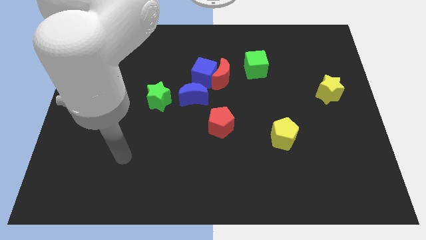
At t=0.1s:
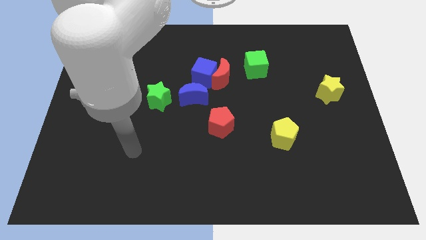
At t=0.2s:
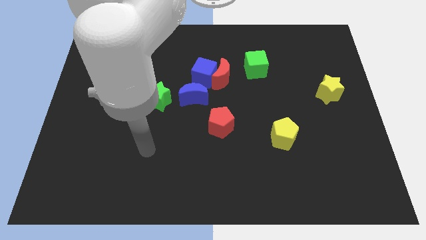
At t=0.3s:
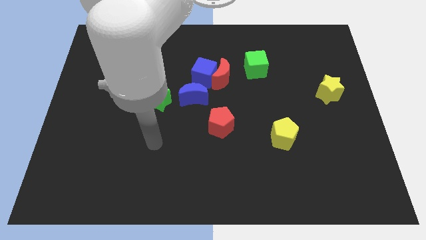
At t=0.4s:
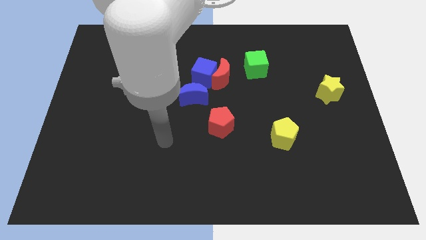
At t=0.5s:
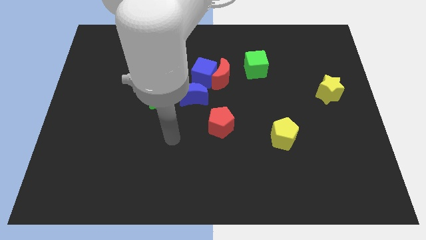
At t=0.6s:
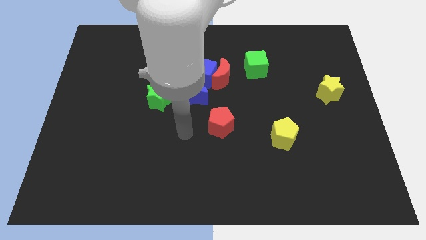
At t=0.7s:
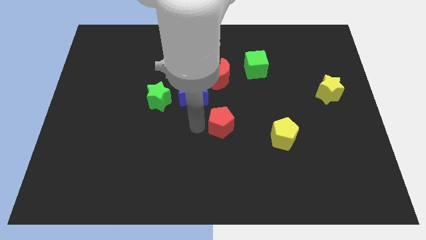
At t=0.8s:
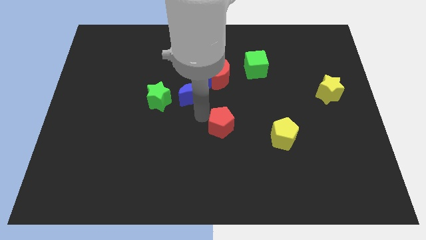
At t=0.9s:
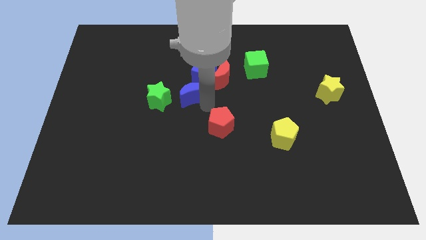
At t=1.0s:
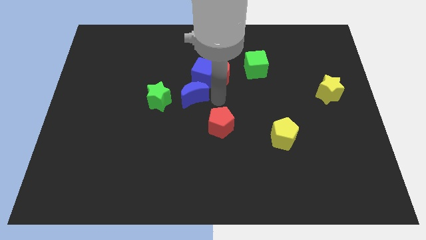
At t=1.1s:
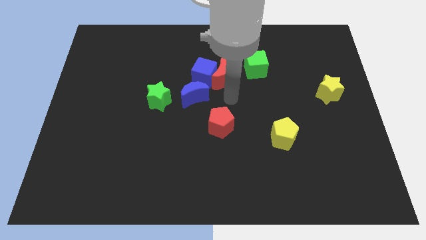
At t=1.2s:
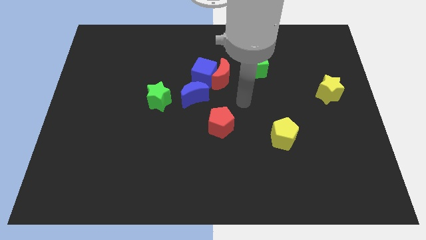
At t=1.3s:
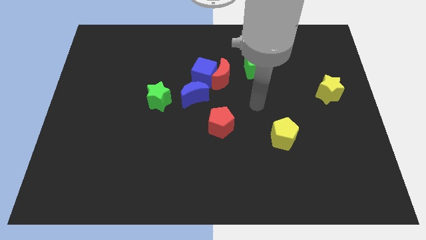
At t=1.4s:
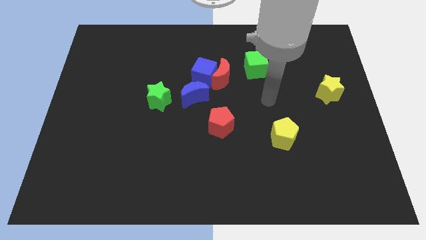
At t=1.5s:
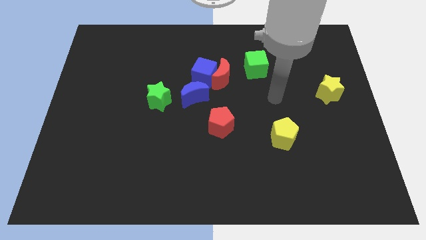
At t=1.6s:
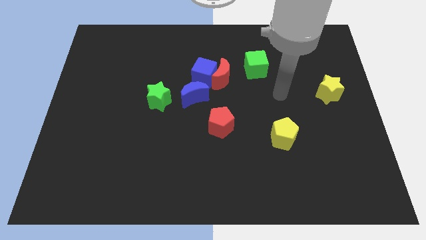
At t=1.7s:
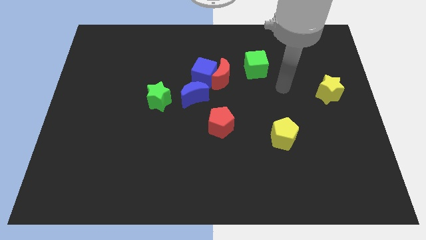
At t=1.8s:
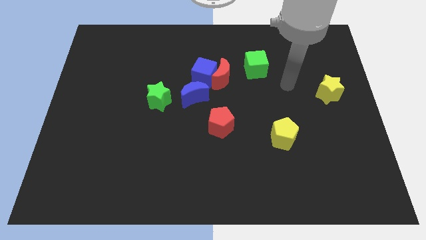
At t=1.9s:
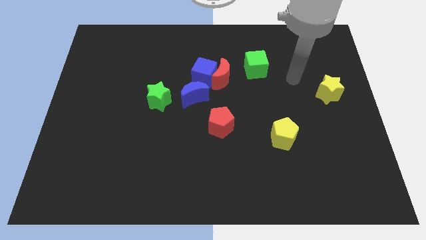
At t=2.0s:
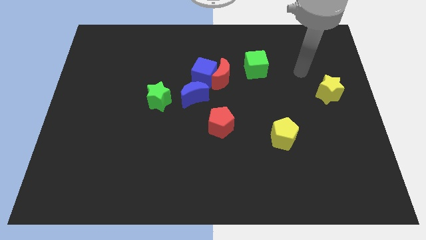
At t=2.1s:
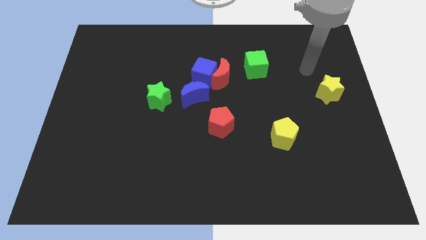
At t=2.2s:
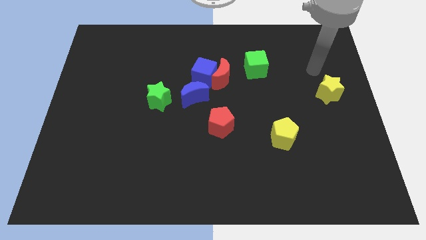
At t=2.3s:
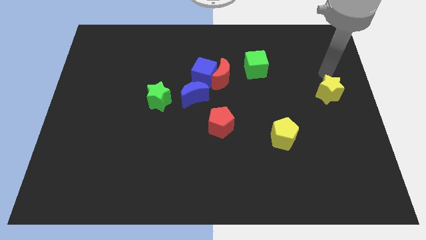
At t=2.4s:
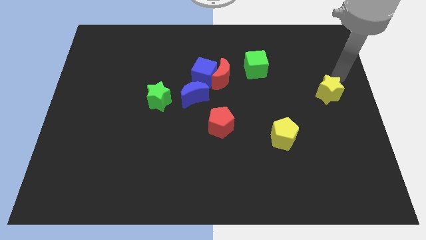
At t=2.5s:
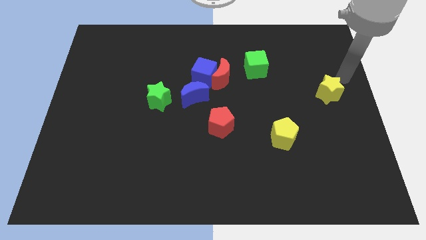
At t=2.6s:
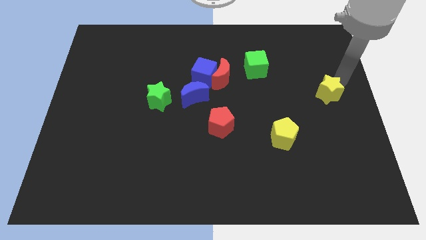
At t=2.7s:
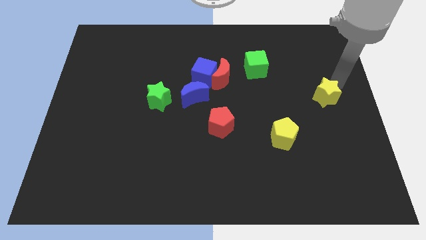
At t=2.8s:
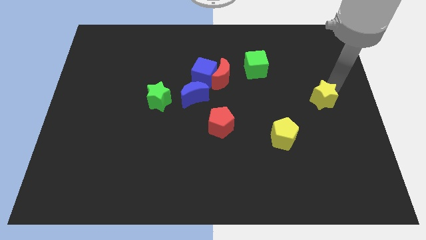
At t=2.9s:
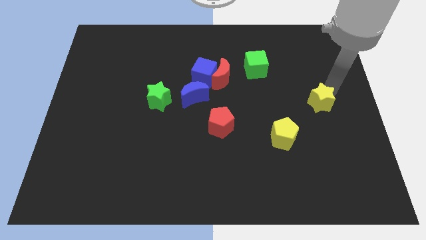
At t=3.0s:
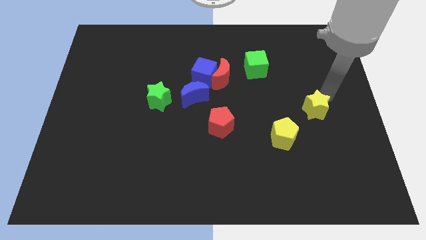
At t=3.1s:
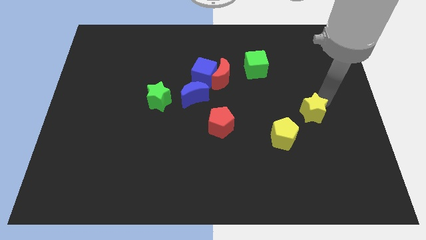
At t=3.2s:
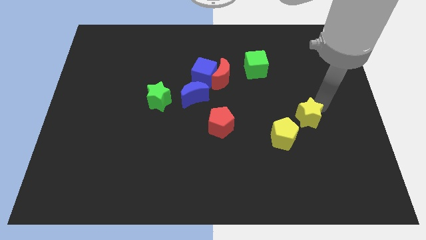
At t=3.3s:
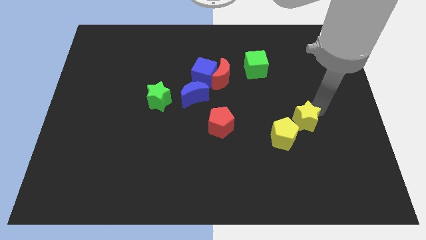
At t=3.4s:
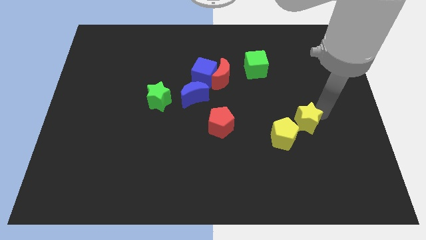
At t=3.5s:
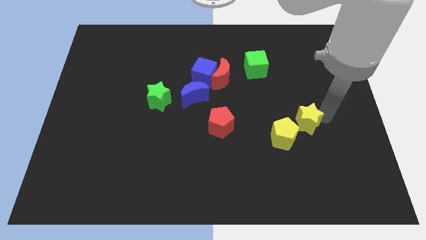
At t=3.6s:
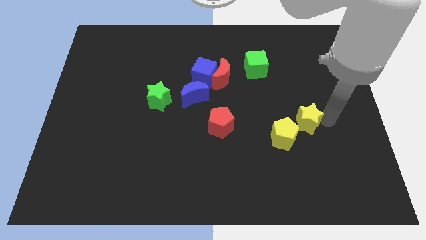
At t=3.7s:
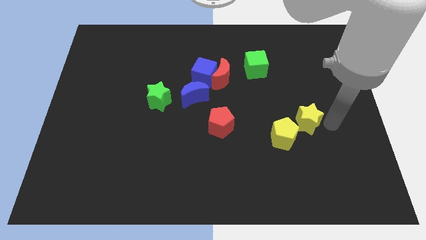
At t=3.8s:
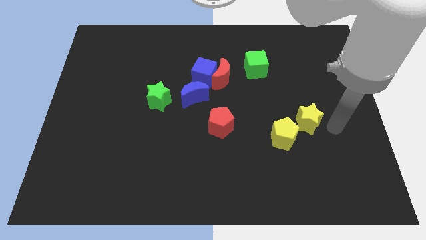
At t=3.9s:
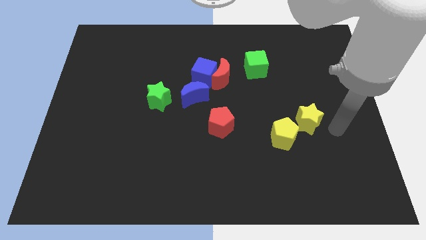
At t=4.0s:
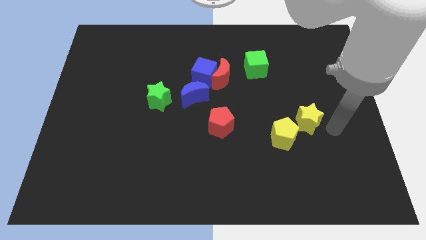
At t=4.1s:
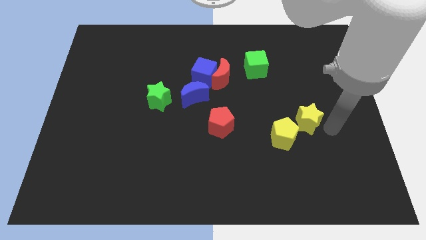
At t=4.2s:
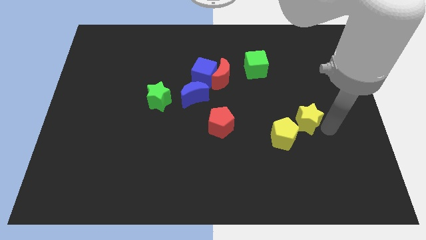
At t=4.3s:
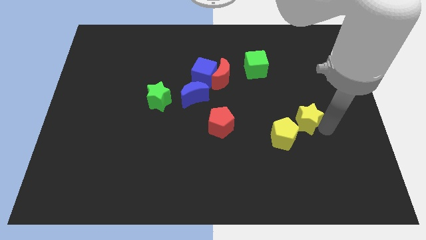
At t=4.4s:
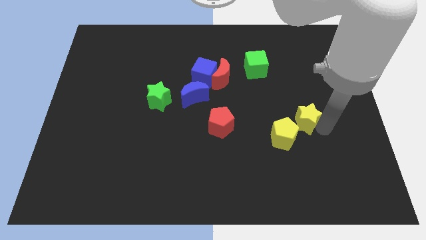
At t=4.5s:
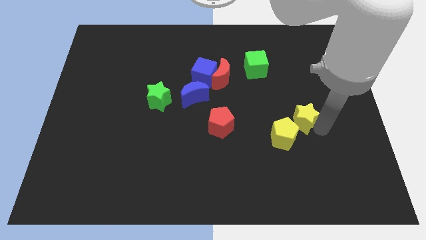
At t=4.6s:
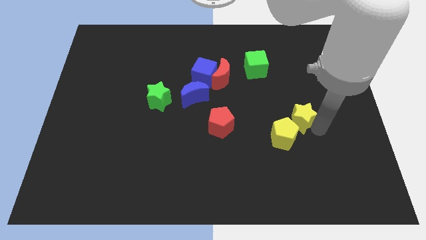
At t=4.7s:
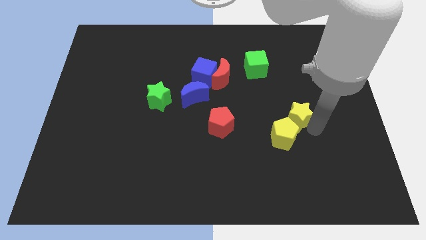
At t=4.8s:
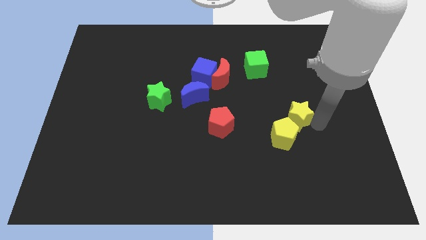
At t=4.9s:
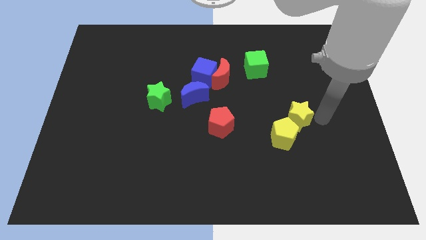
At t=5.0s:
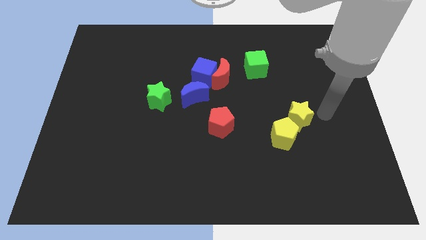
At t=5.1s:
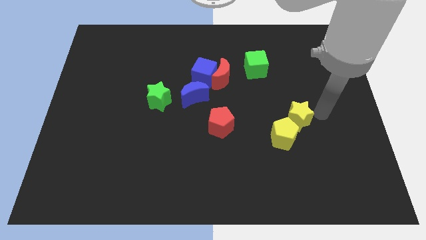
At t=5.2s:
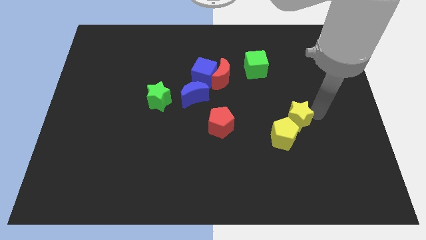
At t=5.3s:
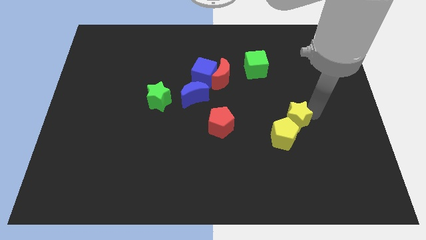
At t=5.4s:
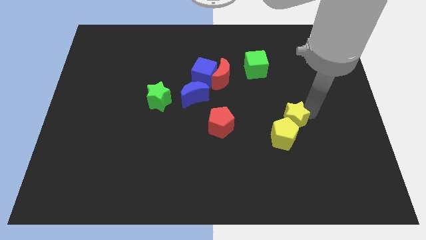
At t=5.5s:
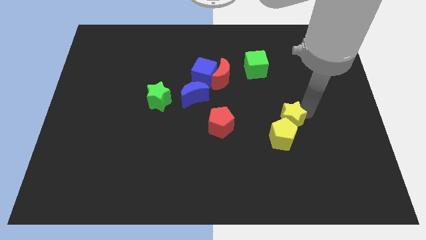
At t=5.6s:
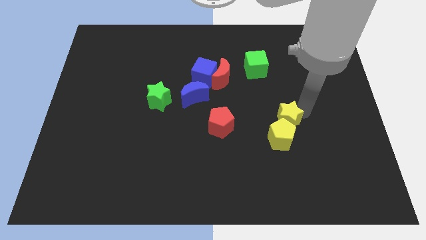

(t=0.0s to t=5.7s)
move the yellow star to the right side of the red pentagon

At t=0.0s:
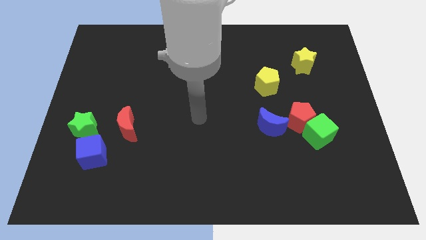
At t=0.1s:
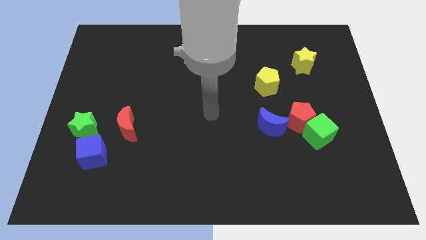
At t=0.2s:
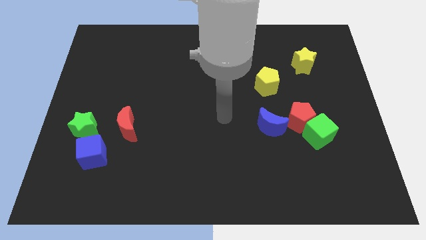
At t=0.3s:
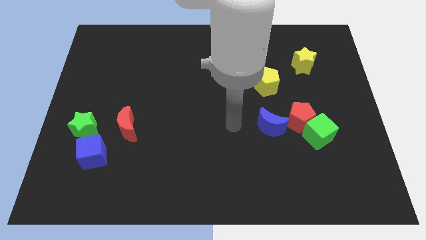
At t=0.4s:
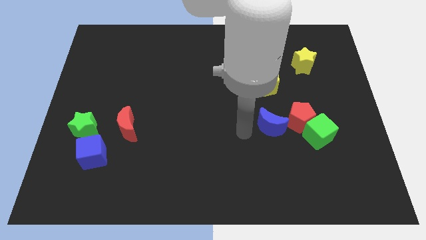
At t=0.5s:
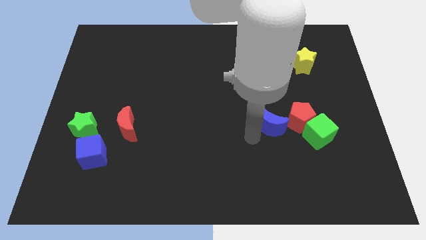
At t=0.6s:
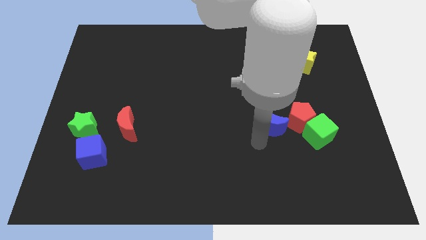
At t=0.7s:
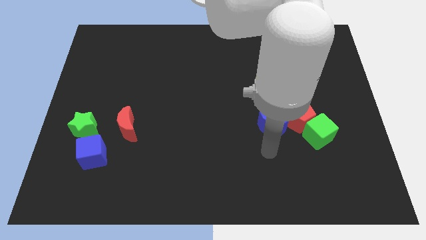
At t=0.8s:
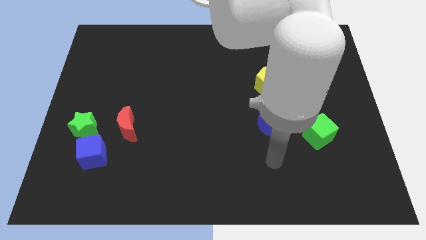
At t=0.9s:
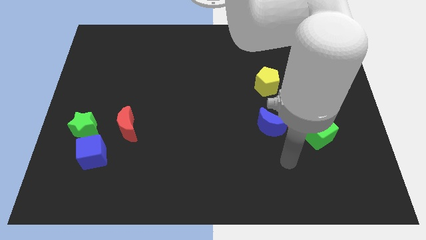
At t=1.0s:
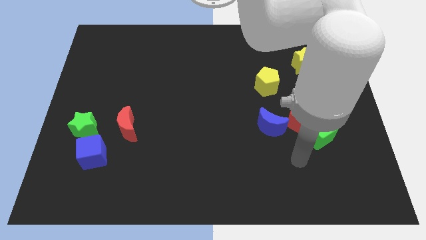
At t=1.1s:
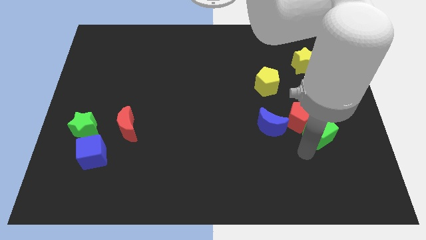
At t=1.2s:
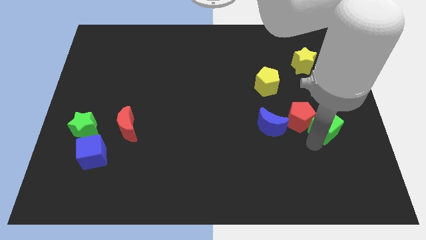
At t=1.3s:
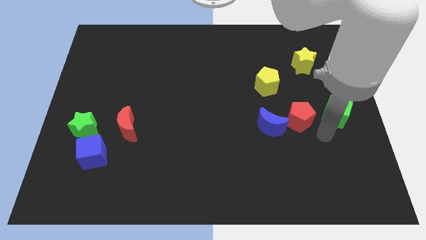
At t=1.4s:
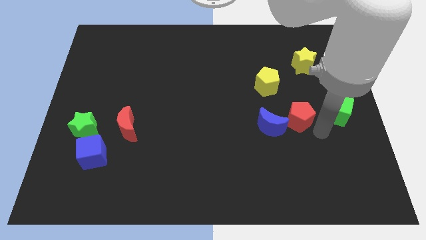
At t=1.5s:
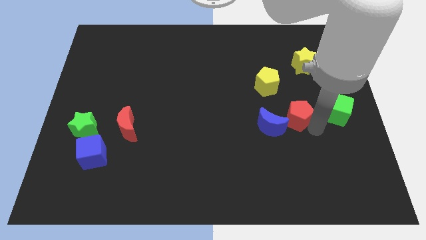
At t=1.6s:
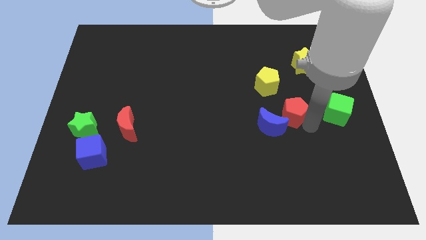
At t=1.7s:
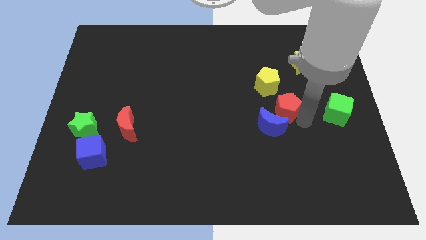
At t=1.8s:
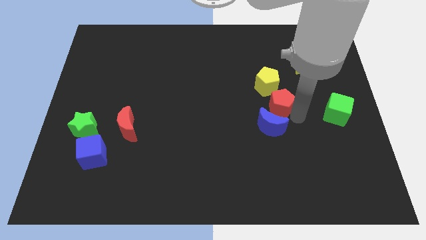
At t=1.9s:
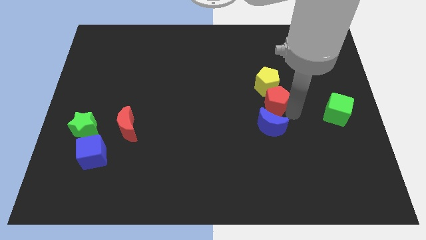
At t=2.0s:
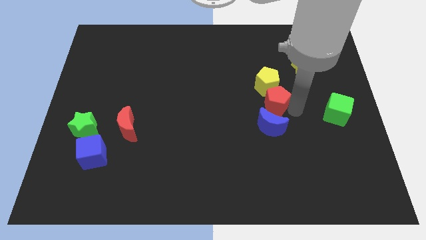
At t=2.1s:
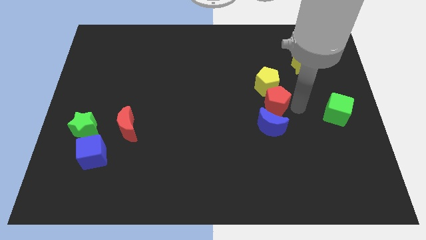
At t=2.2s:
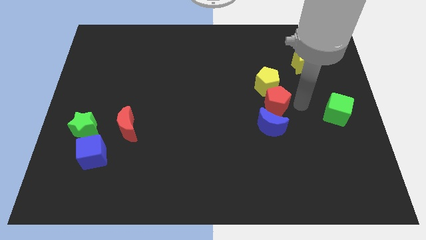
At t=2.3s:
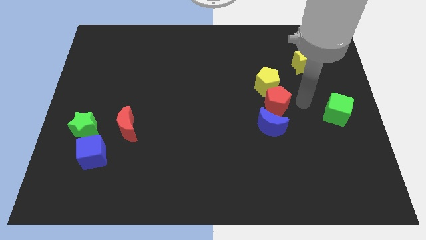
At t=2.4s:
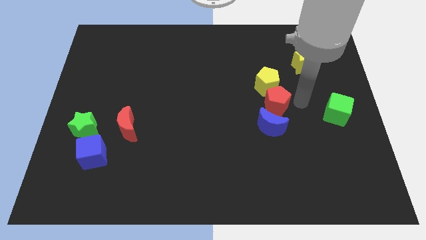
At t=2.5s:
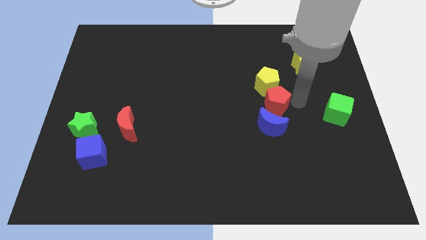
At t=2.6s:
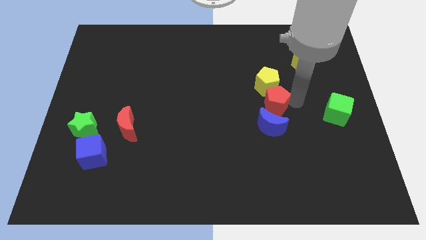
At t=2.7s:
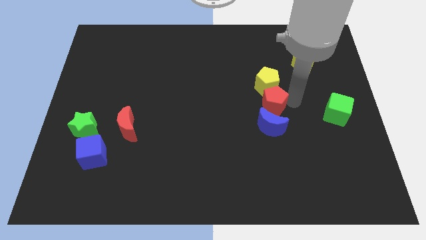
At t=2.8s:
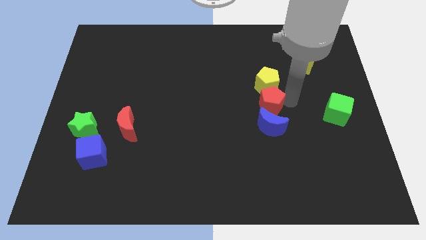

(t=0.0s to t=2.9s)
slide the red pentagon diagonally down and to the left of the yellow pentagon
